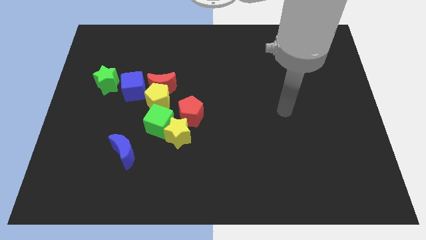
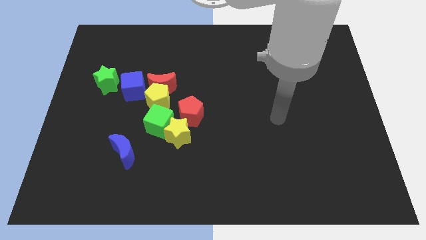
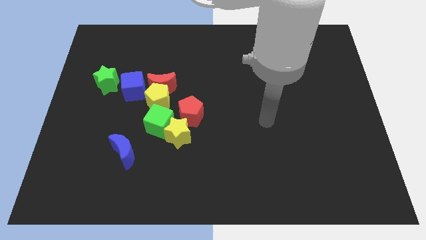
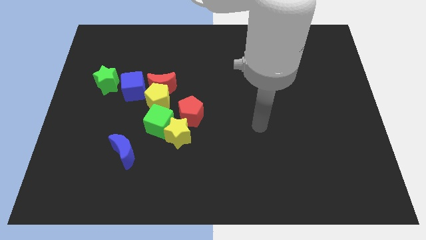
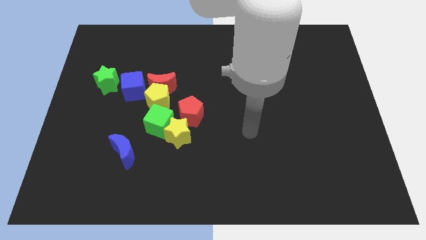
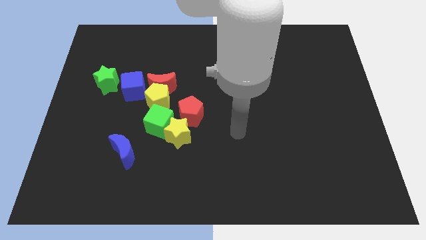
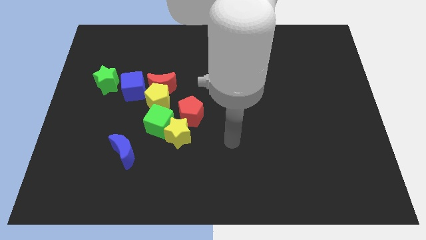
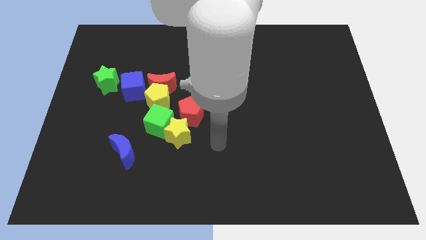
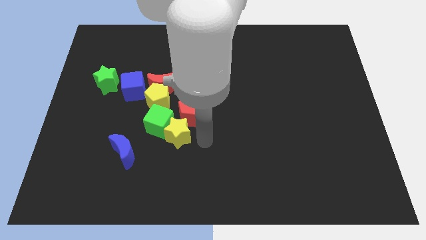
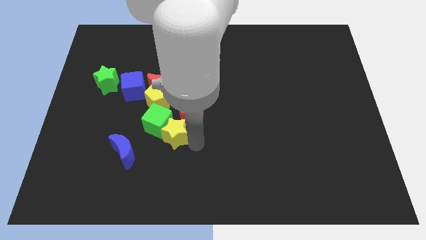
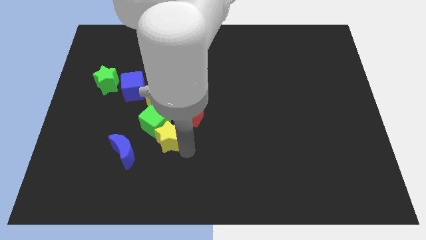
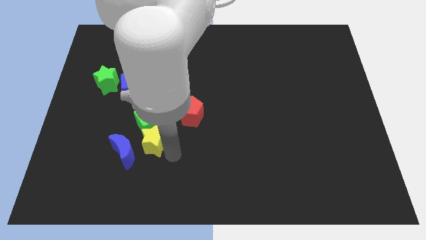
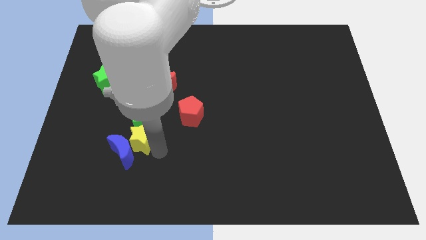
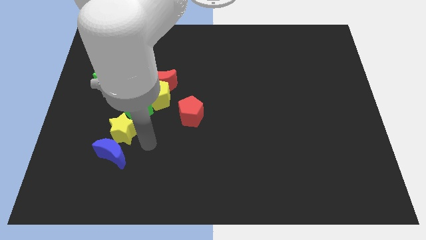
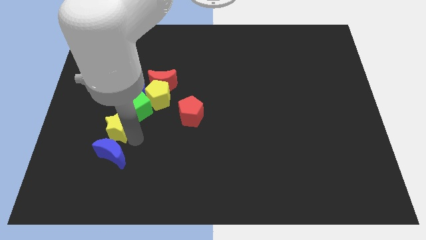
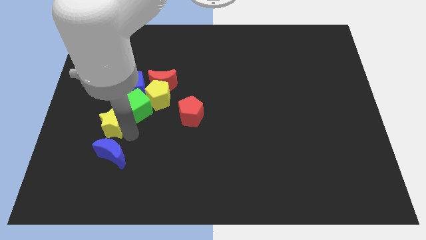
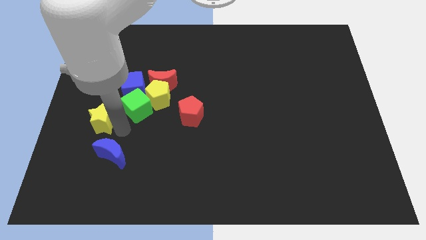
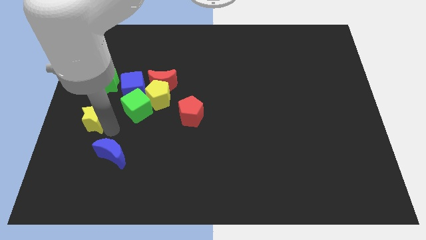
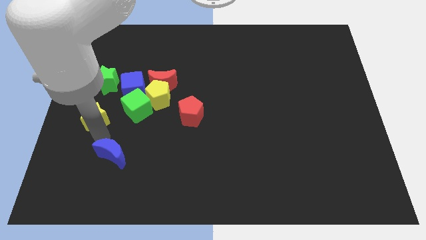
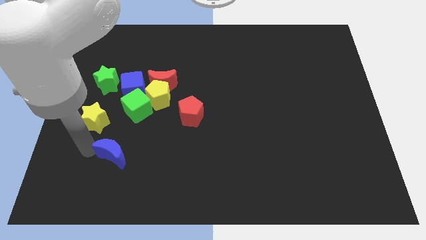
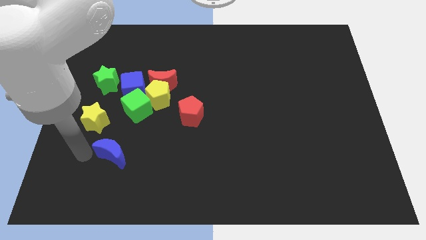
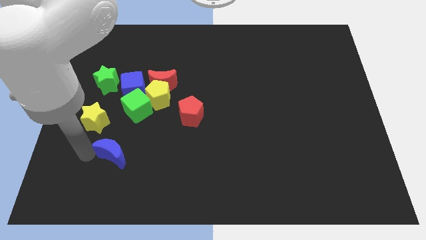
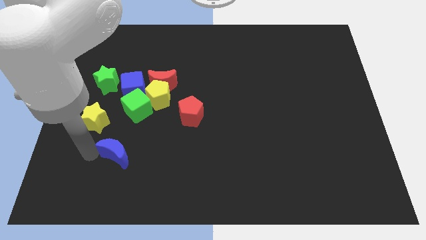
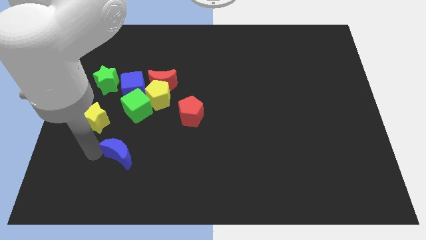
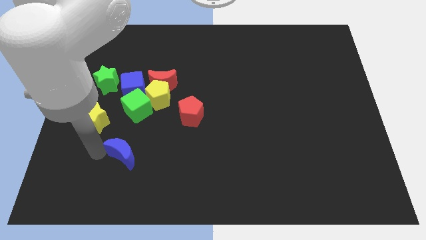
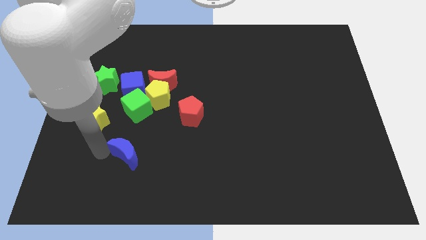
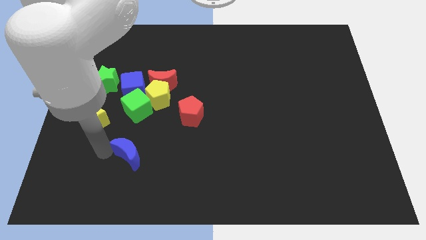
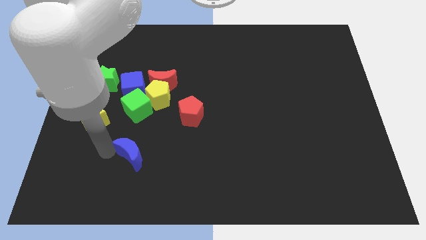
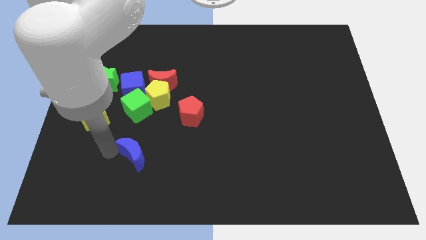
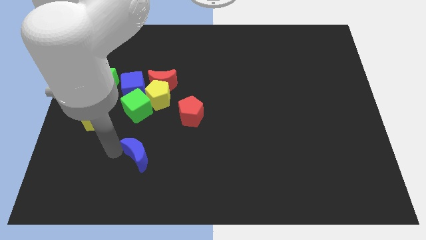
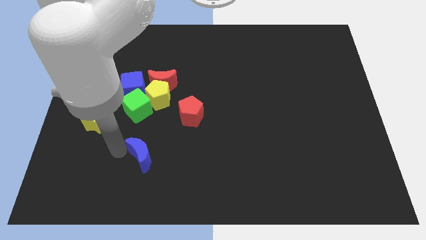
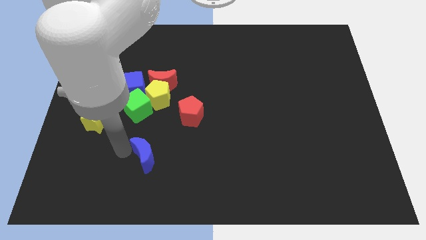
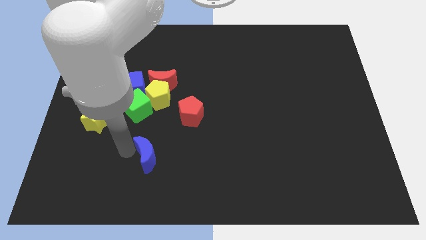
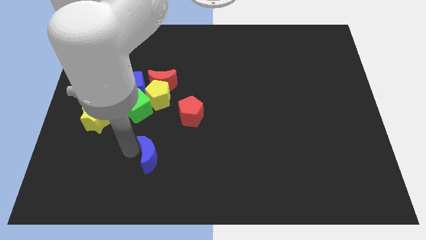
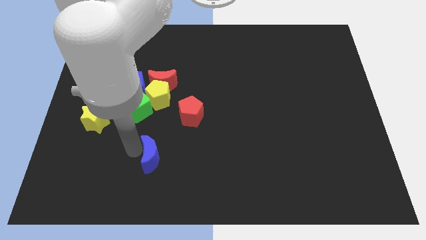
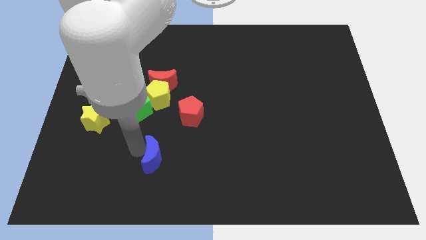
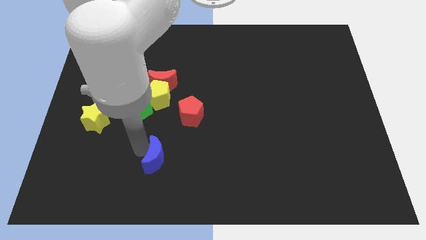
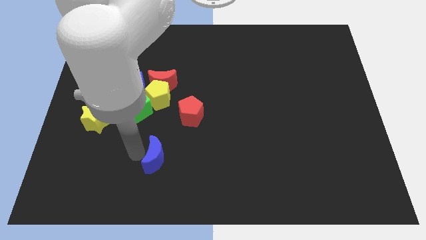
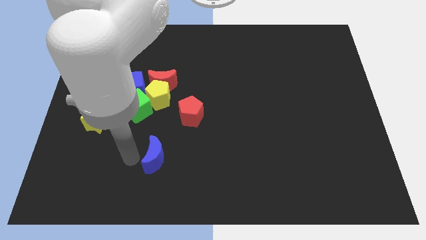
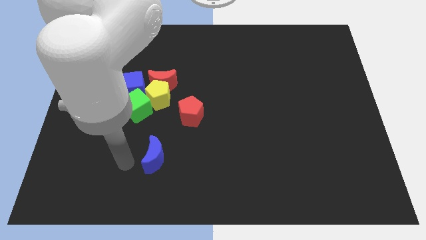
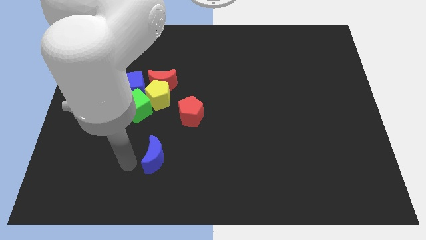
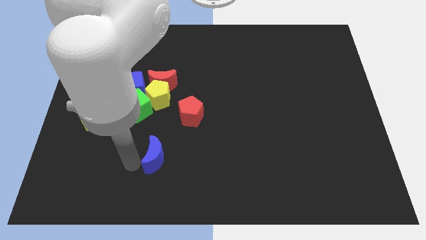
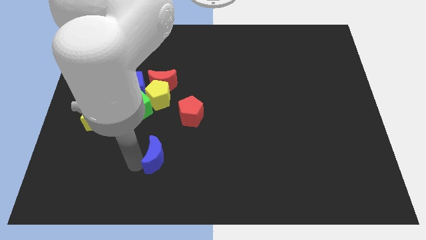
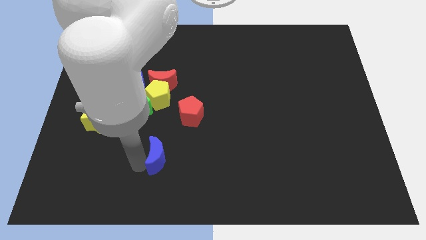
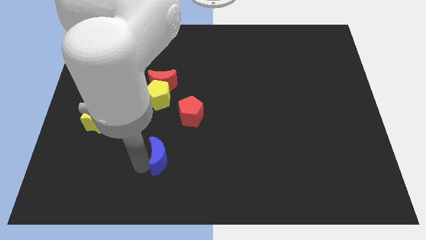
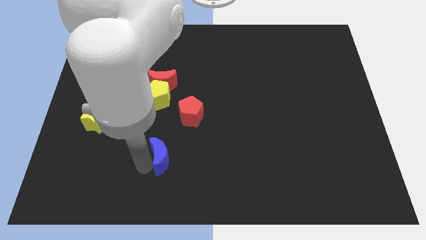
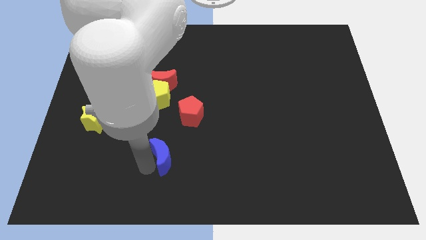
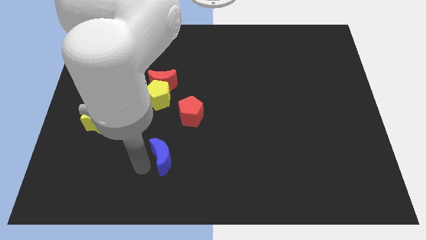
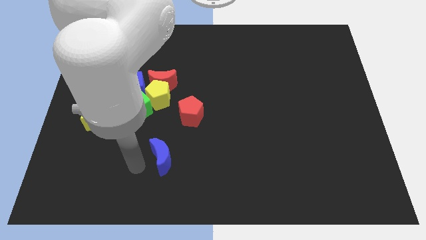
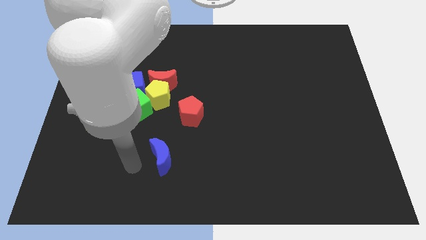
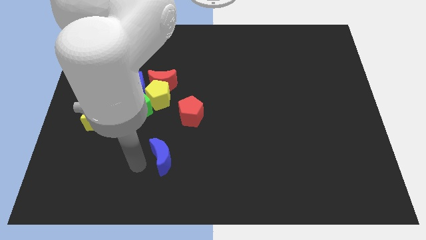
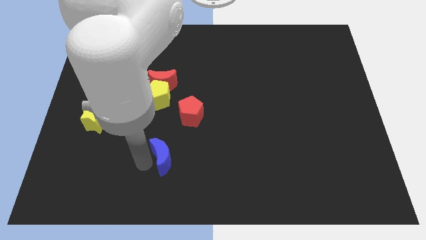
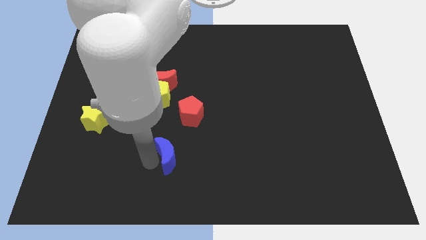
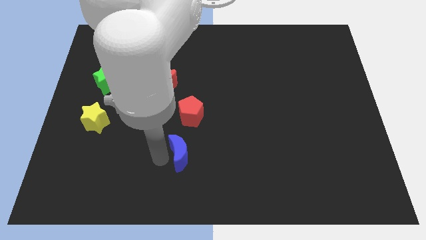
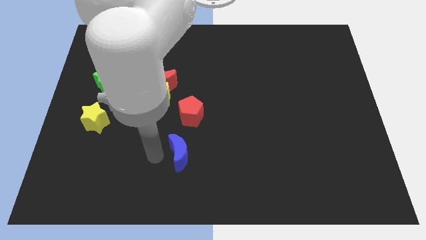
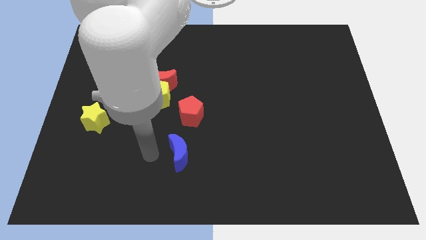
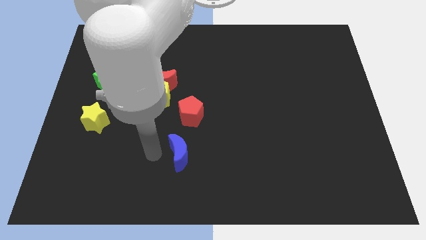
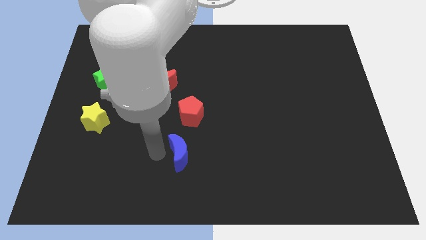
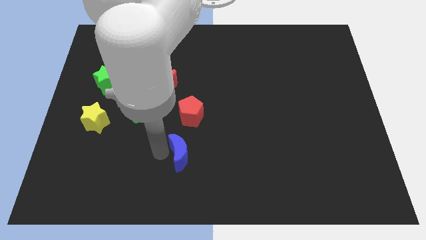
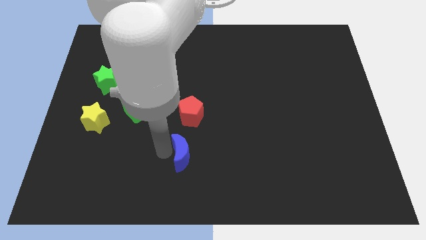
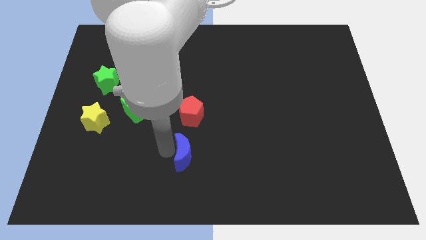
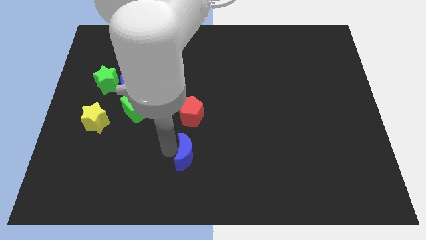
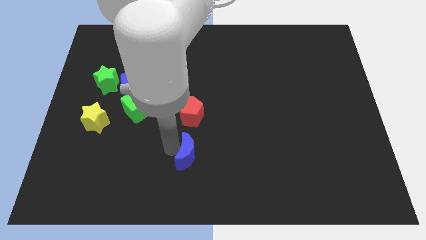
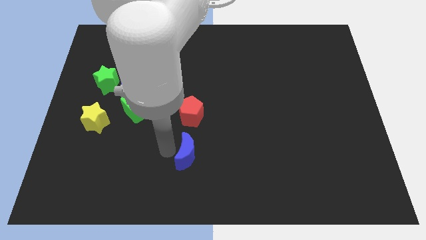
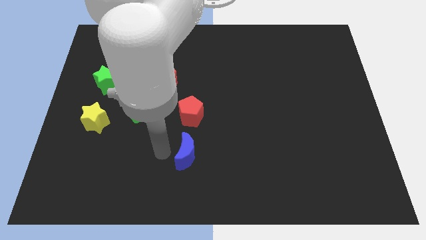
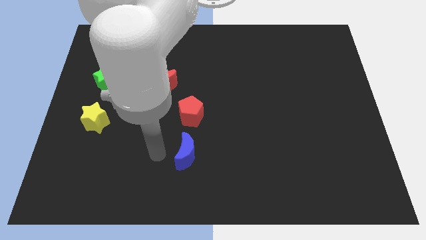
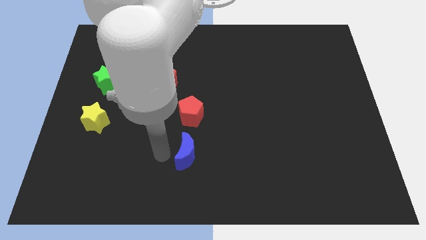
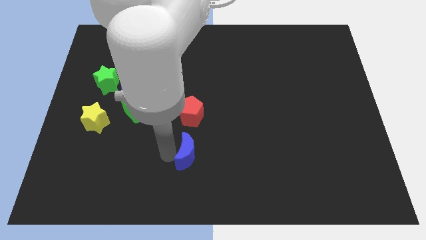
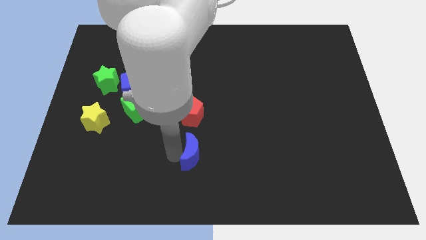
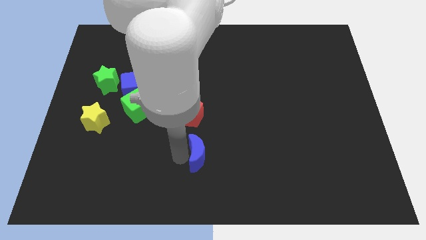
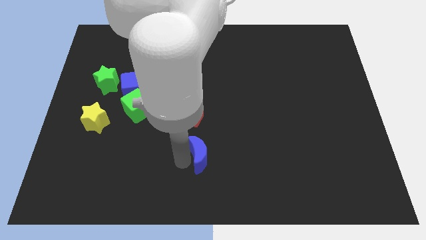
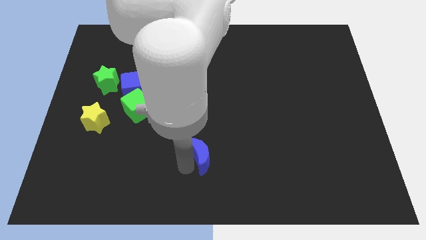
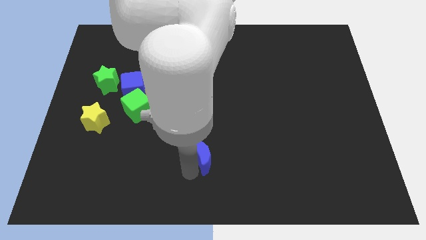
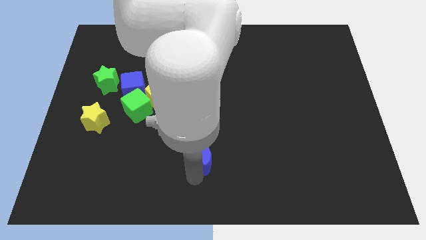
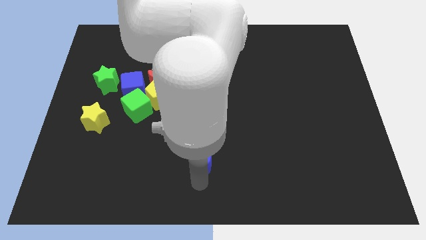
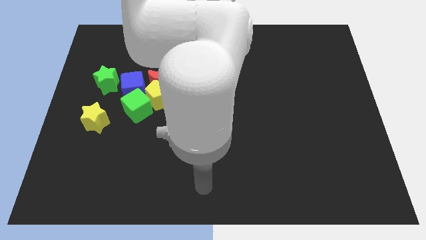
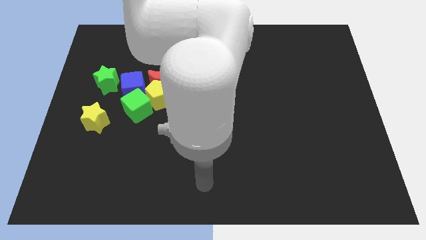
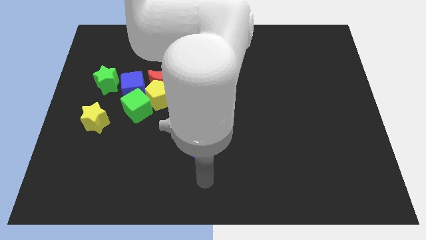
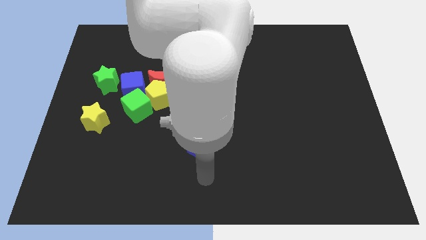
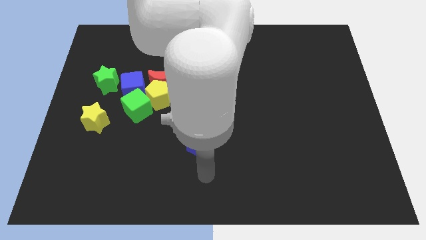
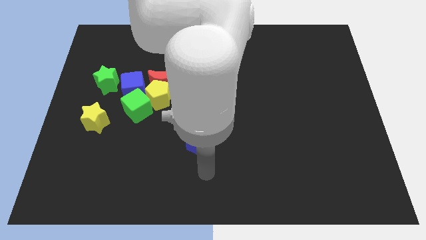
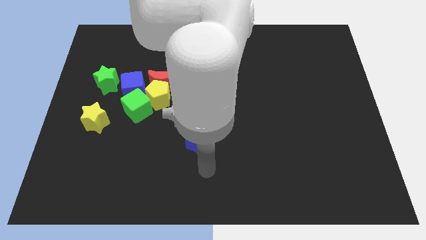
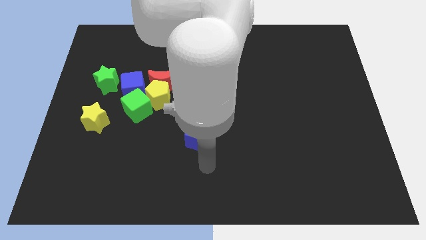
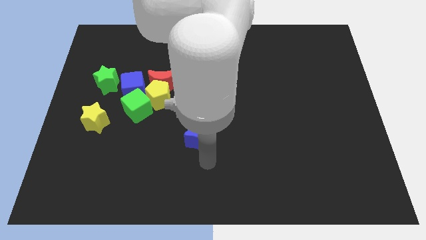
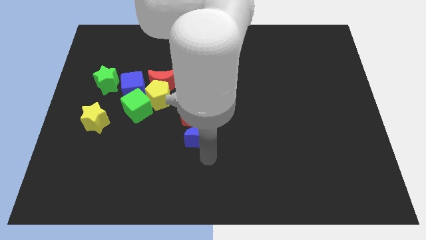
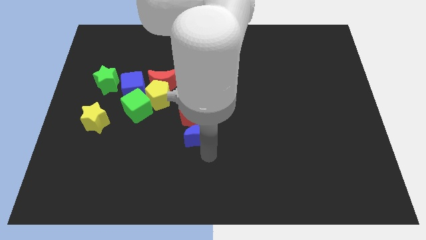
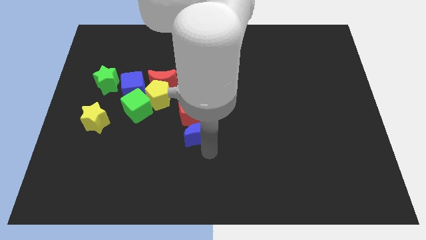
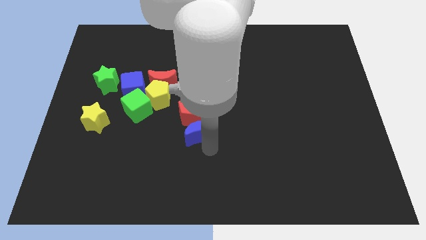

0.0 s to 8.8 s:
slide the blue moon close to the red pentagon
